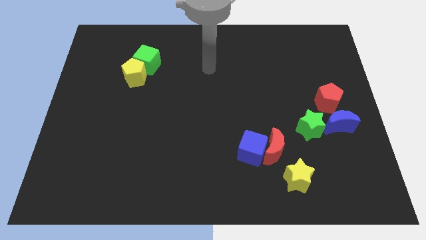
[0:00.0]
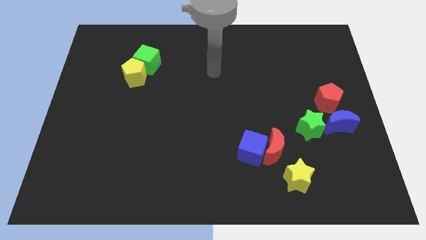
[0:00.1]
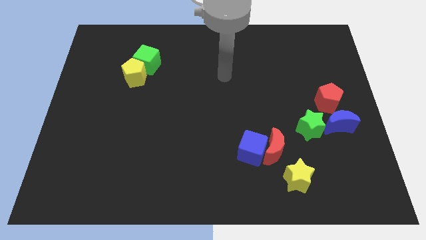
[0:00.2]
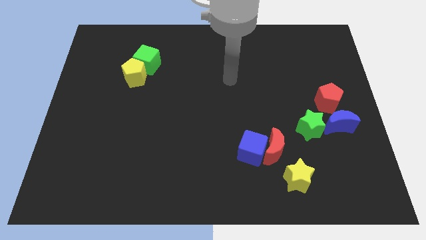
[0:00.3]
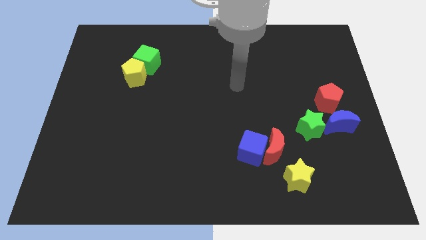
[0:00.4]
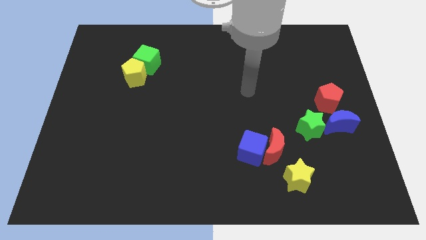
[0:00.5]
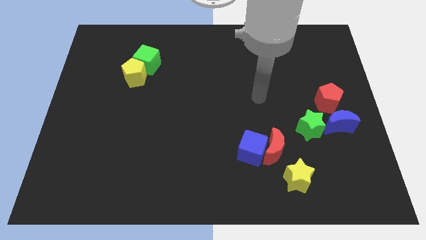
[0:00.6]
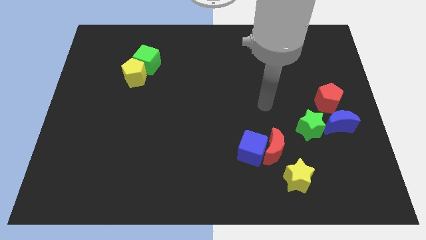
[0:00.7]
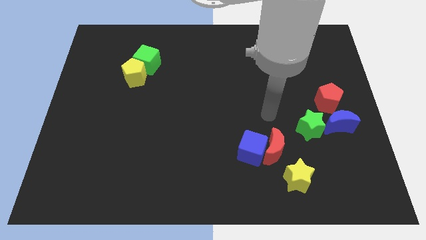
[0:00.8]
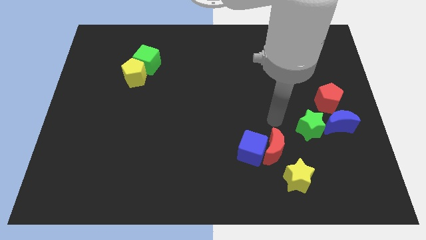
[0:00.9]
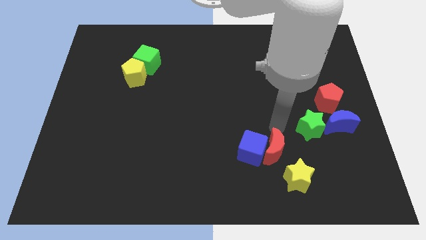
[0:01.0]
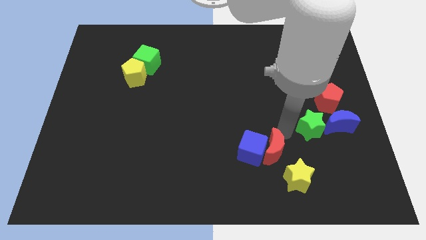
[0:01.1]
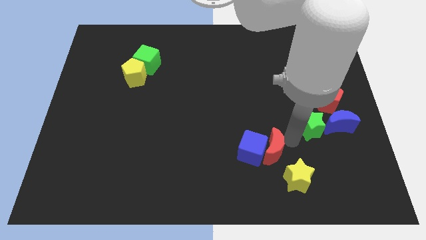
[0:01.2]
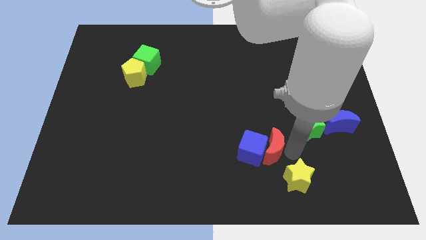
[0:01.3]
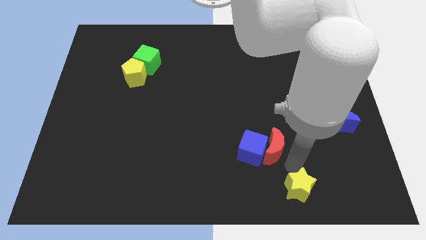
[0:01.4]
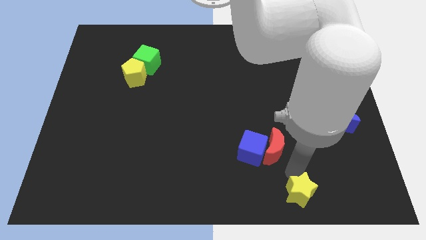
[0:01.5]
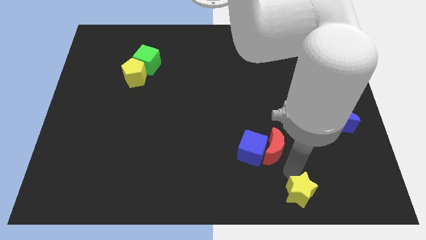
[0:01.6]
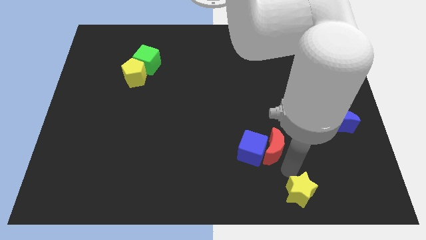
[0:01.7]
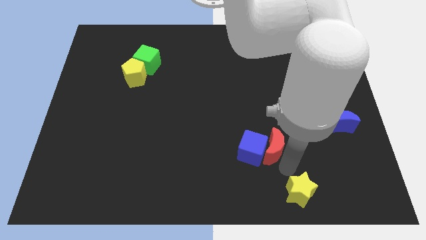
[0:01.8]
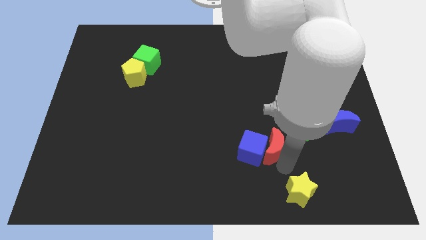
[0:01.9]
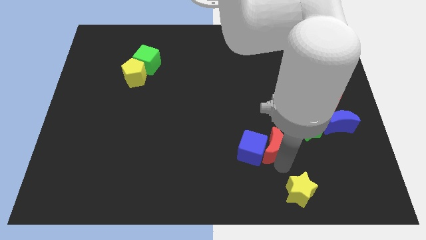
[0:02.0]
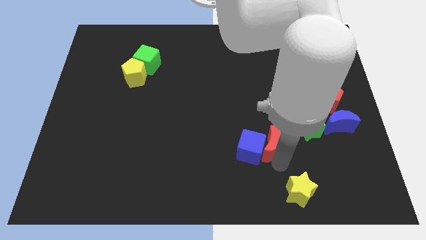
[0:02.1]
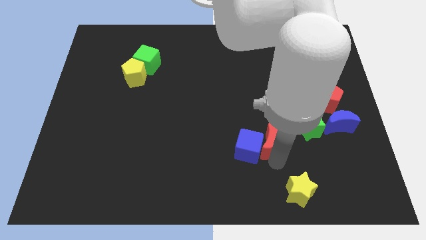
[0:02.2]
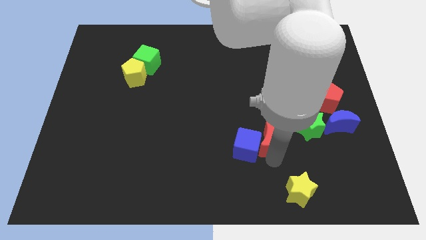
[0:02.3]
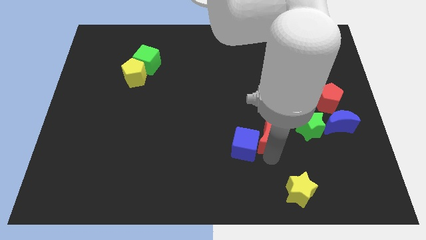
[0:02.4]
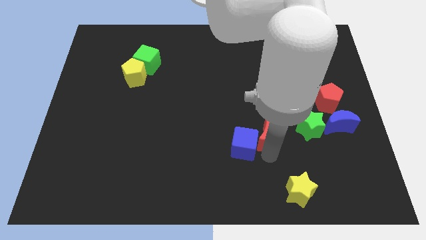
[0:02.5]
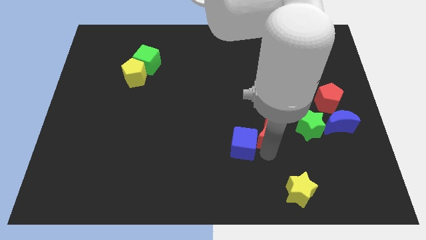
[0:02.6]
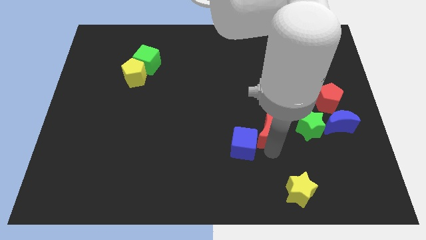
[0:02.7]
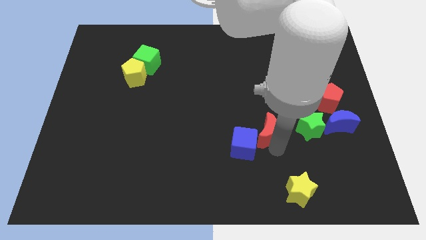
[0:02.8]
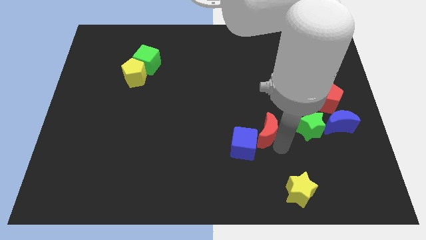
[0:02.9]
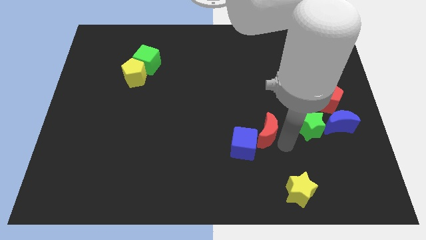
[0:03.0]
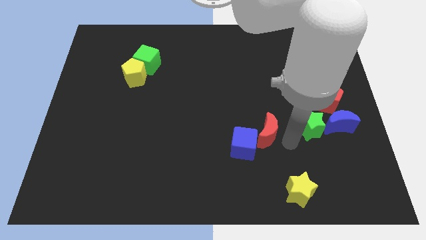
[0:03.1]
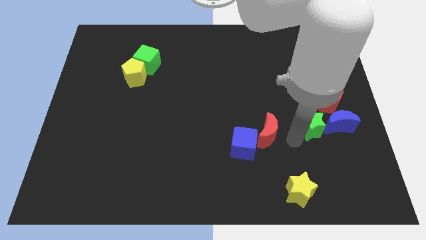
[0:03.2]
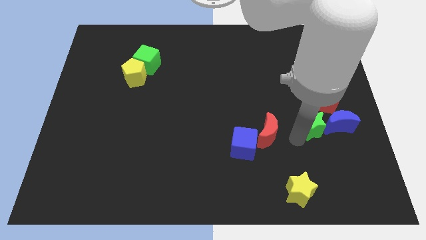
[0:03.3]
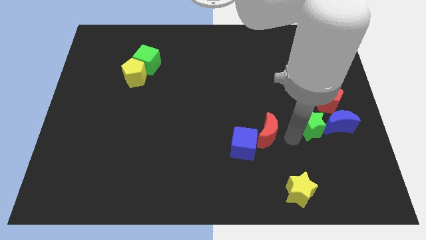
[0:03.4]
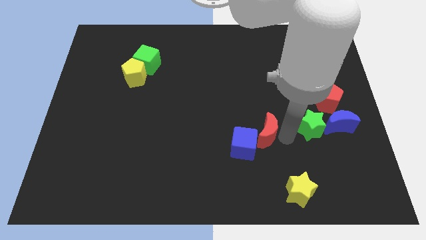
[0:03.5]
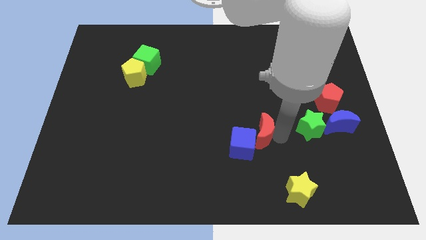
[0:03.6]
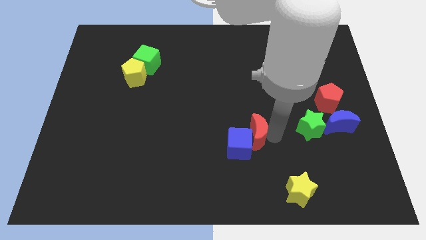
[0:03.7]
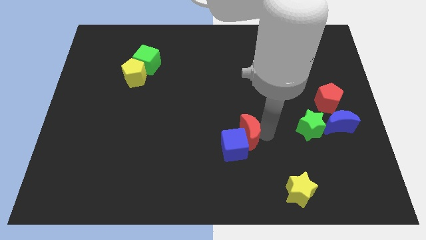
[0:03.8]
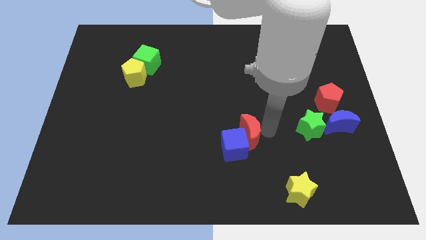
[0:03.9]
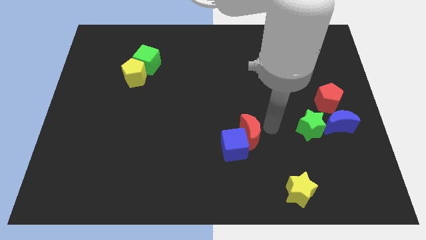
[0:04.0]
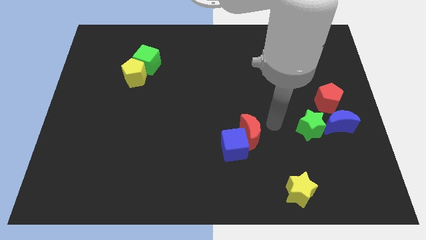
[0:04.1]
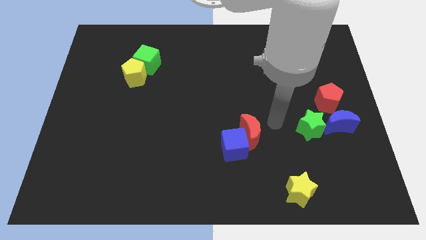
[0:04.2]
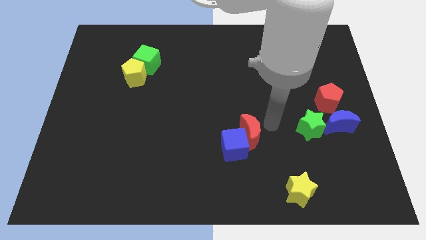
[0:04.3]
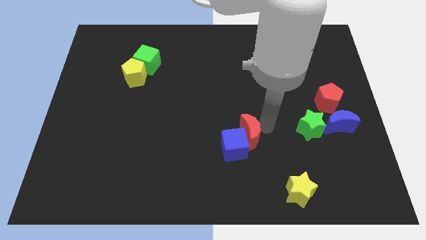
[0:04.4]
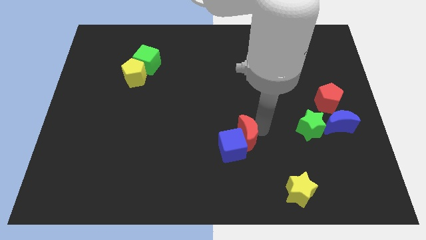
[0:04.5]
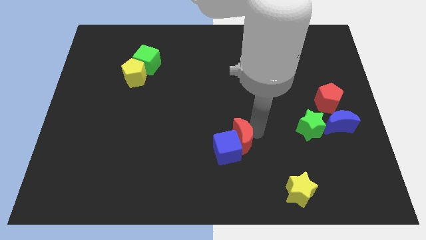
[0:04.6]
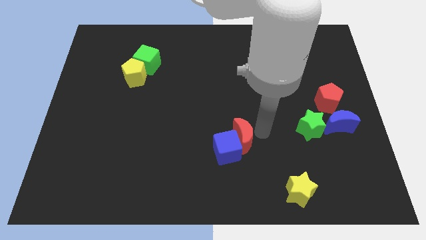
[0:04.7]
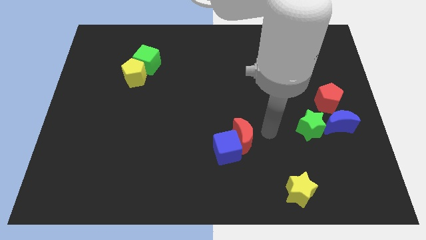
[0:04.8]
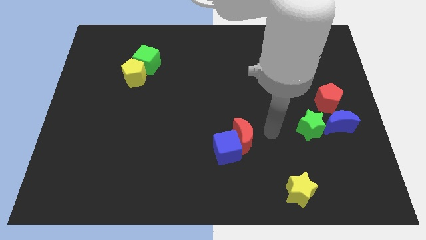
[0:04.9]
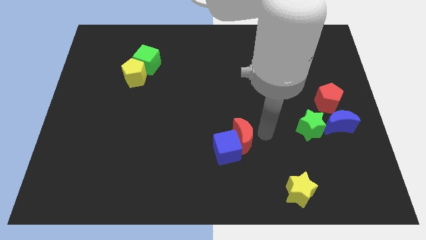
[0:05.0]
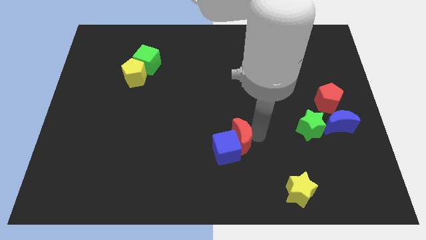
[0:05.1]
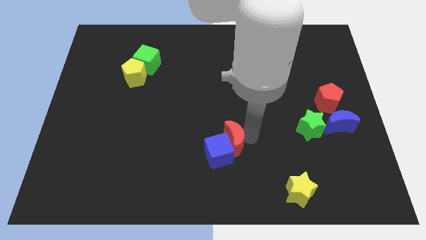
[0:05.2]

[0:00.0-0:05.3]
slide the red moon slightly to the left

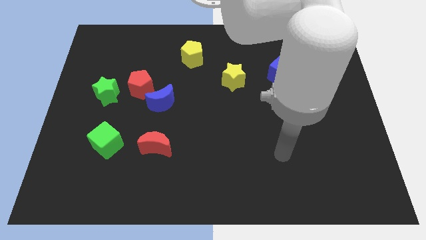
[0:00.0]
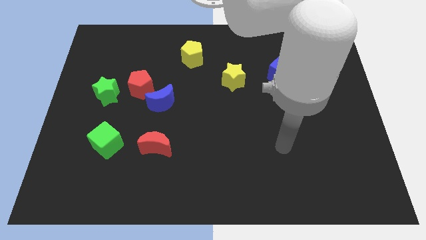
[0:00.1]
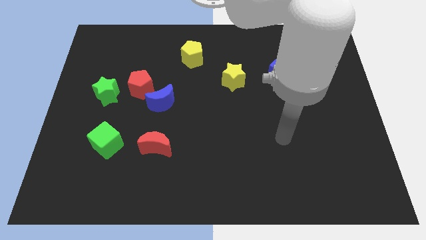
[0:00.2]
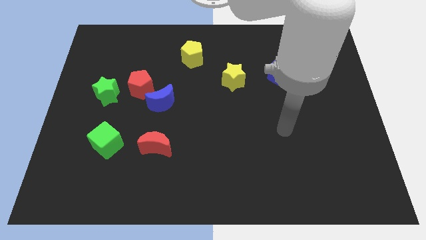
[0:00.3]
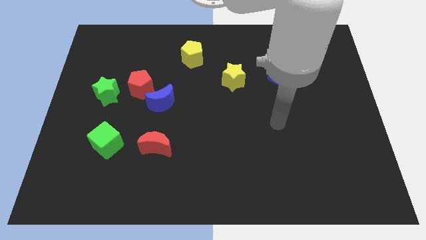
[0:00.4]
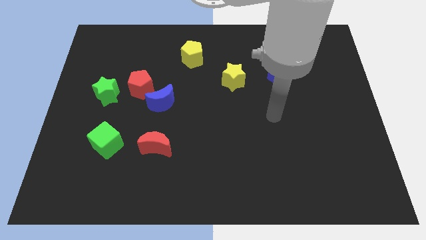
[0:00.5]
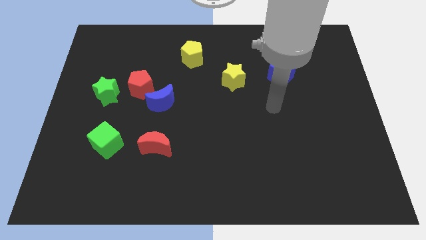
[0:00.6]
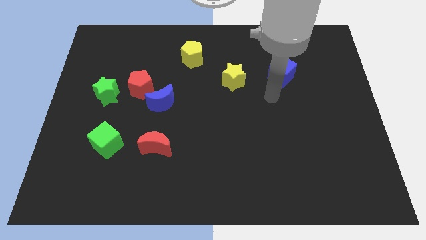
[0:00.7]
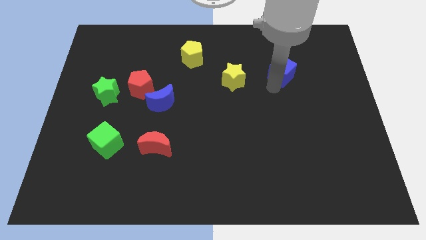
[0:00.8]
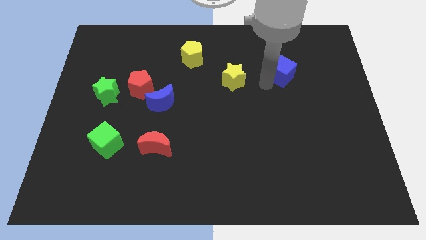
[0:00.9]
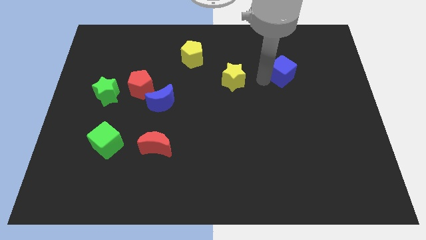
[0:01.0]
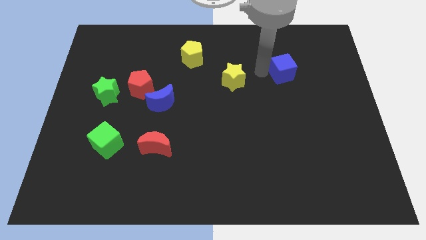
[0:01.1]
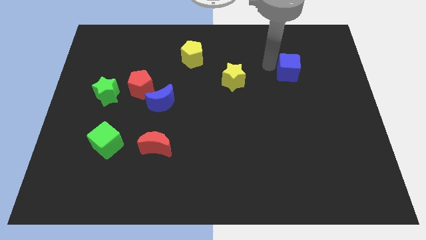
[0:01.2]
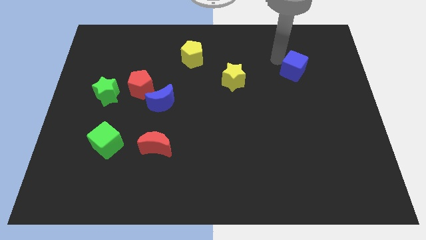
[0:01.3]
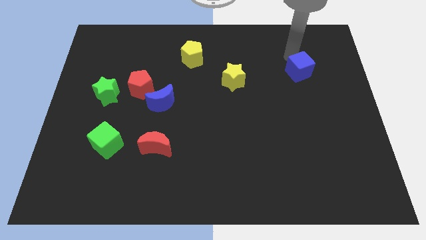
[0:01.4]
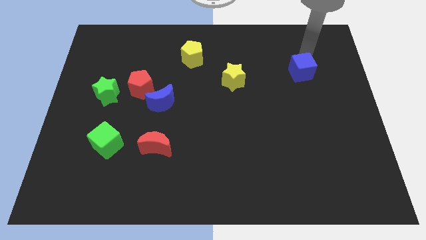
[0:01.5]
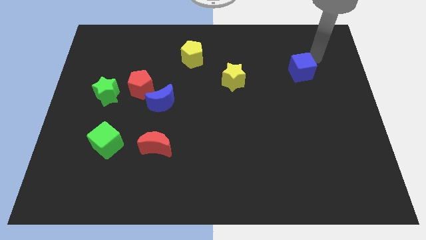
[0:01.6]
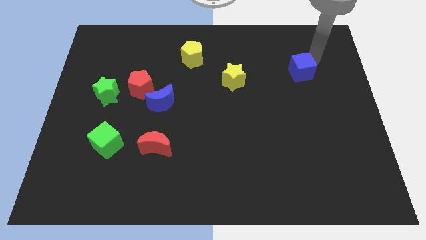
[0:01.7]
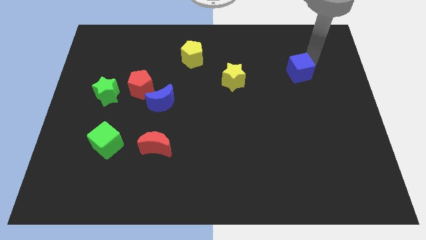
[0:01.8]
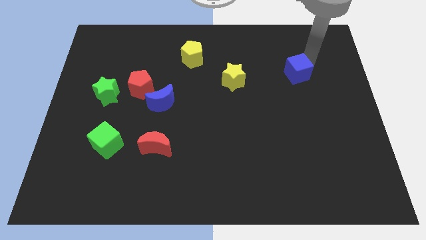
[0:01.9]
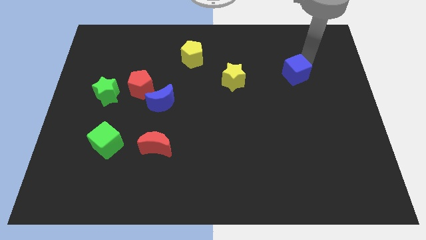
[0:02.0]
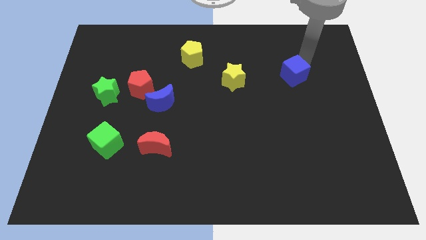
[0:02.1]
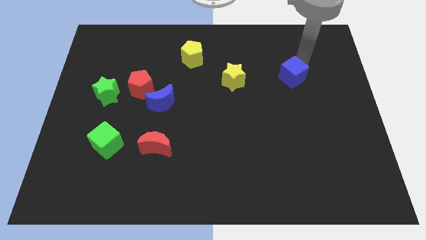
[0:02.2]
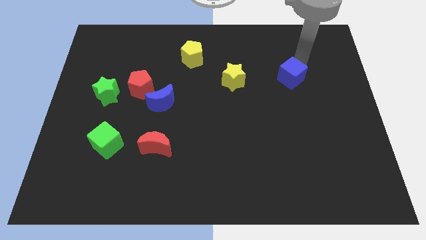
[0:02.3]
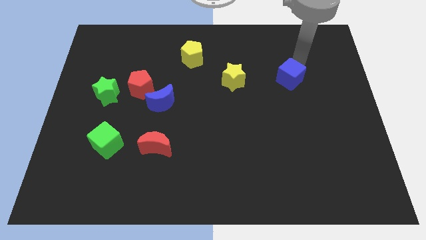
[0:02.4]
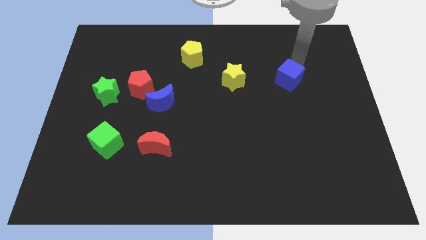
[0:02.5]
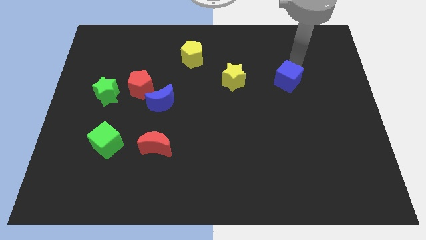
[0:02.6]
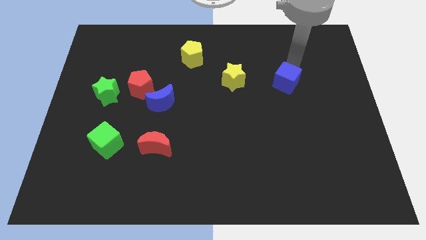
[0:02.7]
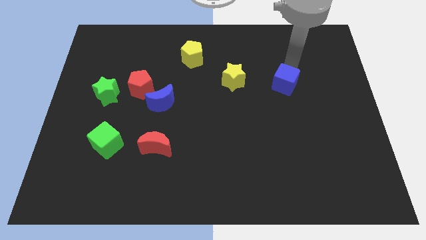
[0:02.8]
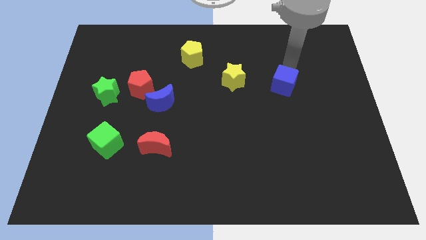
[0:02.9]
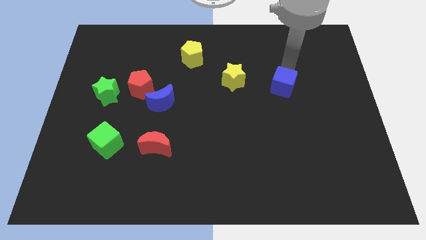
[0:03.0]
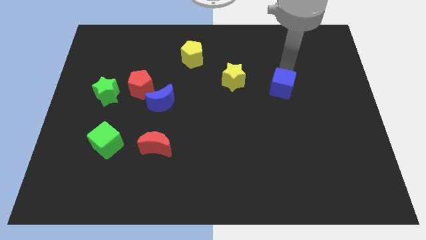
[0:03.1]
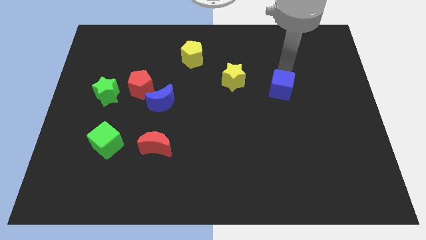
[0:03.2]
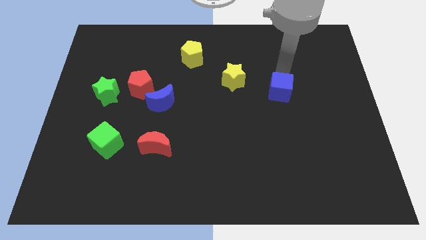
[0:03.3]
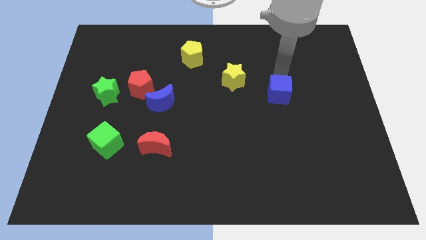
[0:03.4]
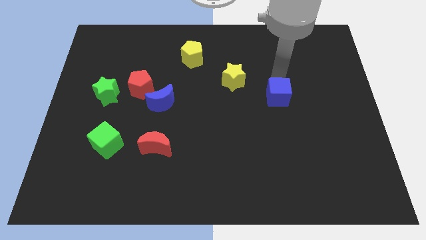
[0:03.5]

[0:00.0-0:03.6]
slightly slide the blue cube downwards
